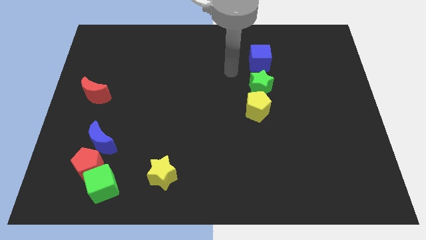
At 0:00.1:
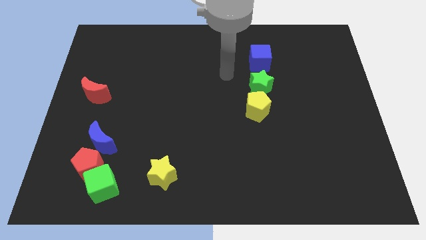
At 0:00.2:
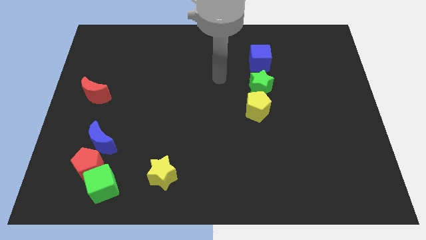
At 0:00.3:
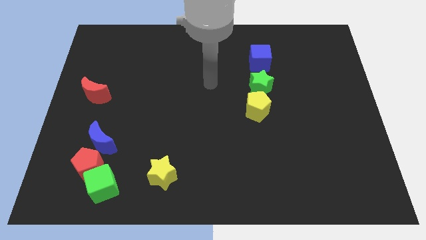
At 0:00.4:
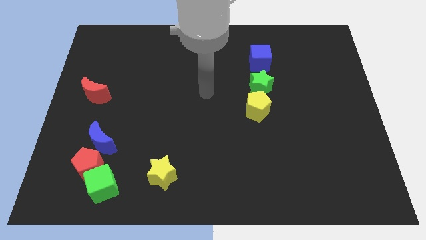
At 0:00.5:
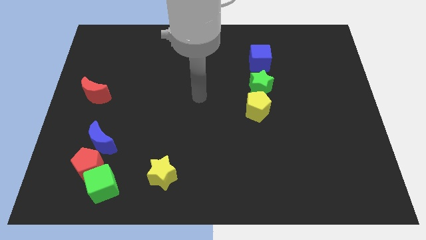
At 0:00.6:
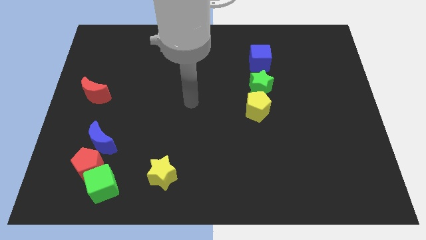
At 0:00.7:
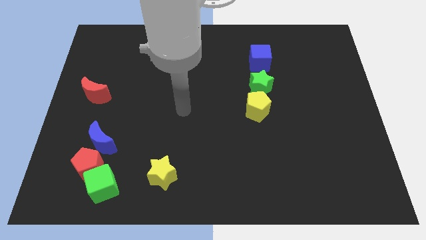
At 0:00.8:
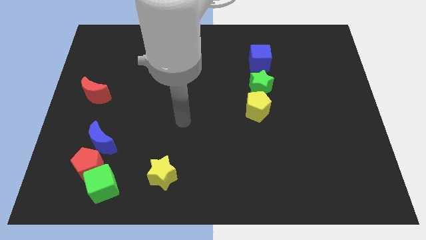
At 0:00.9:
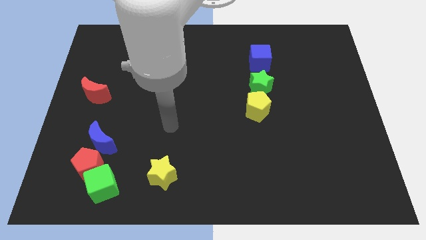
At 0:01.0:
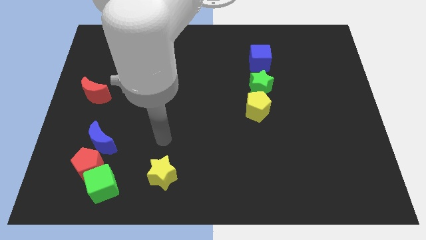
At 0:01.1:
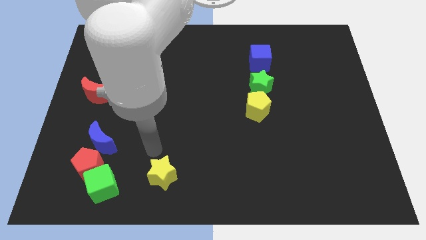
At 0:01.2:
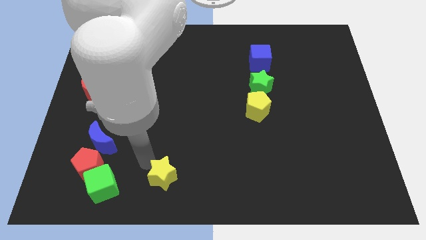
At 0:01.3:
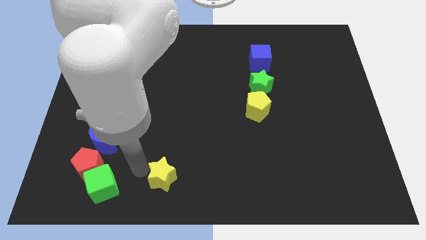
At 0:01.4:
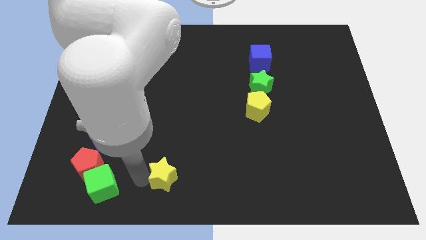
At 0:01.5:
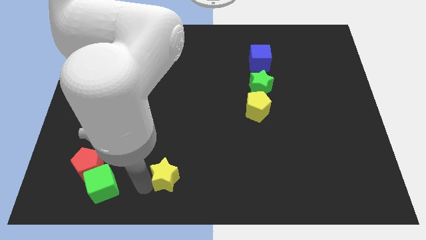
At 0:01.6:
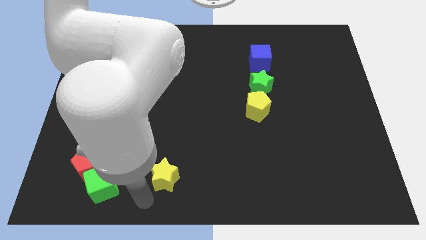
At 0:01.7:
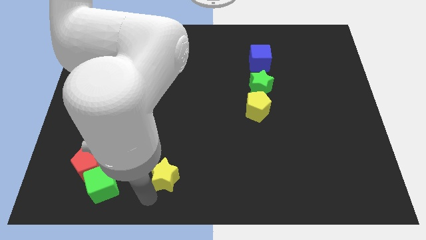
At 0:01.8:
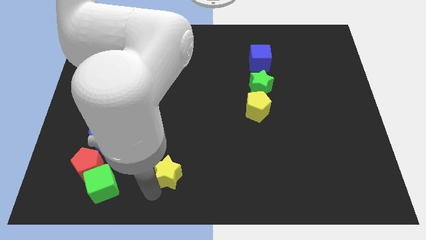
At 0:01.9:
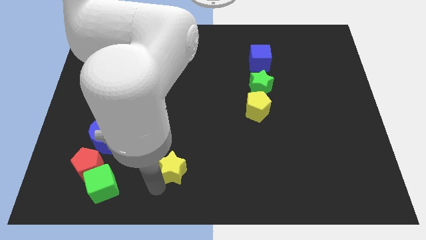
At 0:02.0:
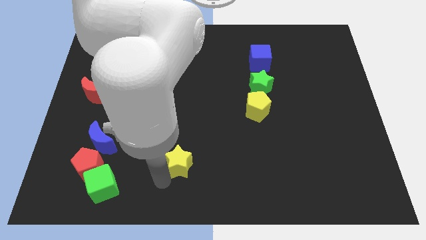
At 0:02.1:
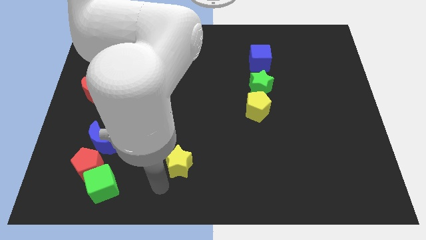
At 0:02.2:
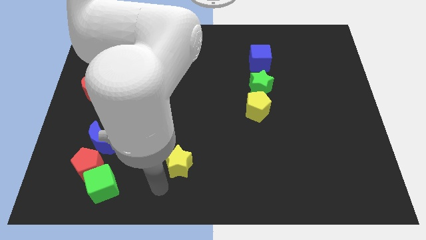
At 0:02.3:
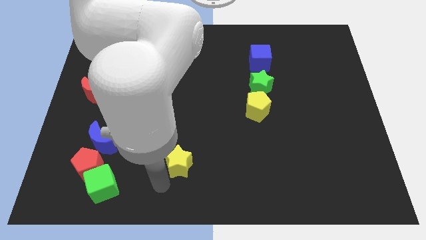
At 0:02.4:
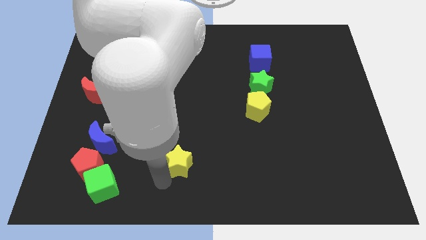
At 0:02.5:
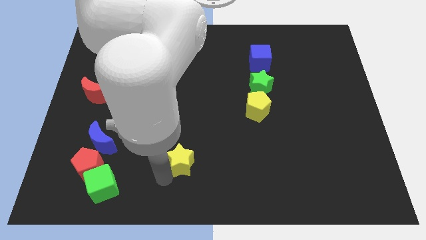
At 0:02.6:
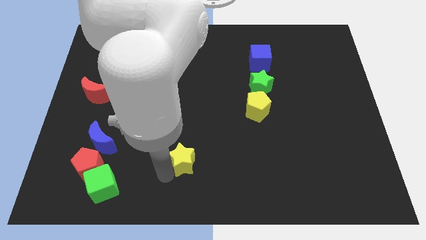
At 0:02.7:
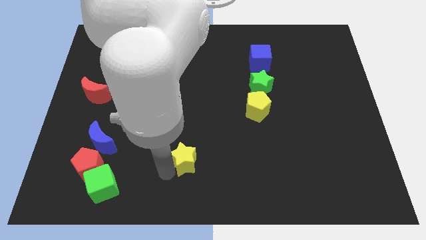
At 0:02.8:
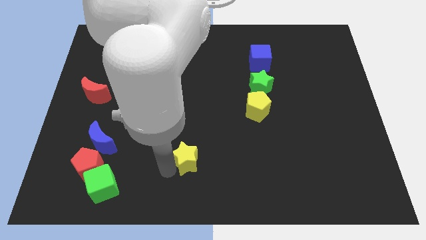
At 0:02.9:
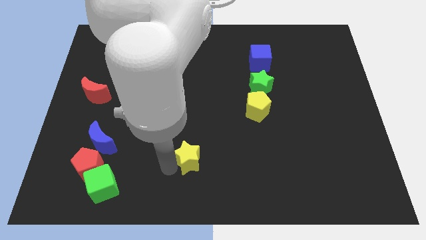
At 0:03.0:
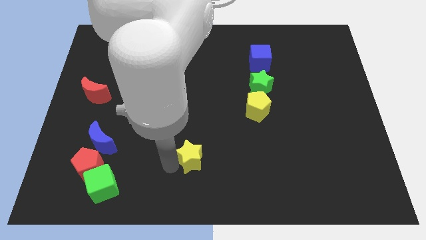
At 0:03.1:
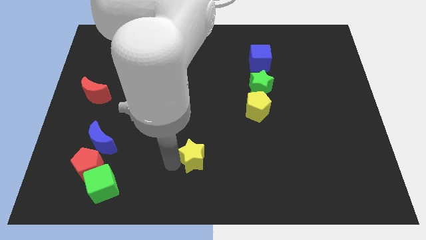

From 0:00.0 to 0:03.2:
slide the yellow star upwards and then to the right somewhat

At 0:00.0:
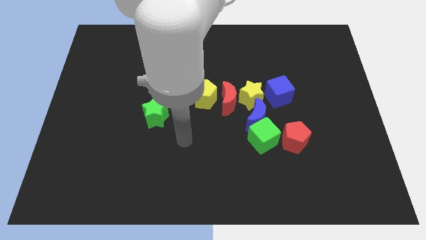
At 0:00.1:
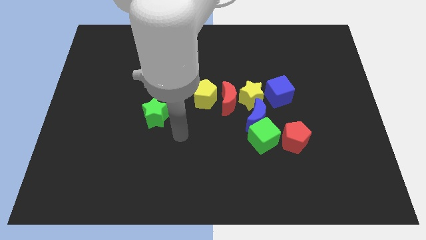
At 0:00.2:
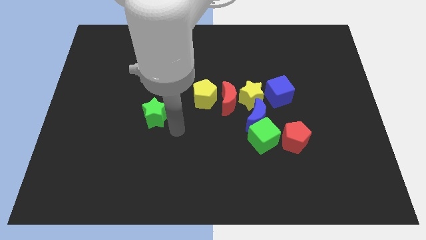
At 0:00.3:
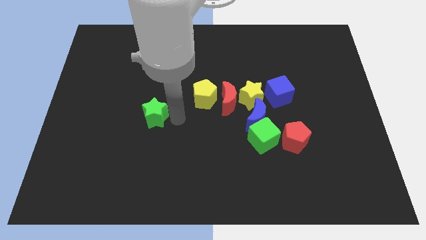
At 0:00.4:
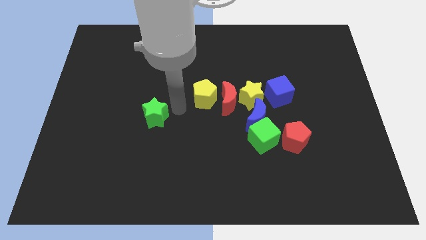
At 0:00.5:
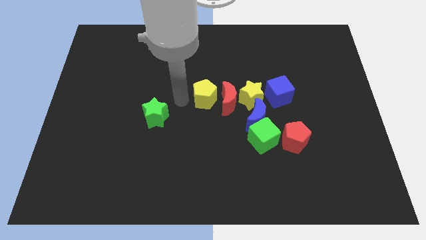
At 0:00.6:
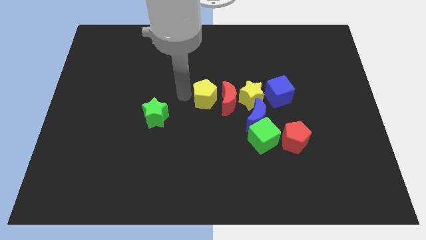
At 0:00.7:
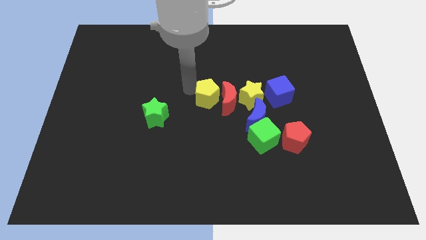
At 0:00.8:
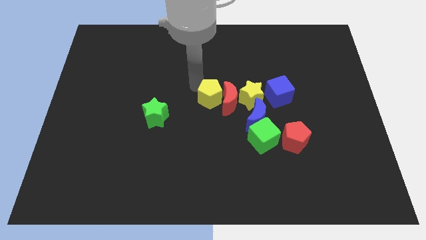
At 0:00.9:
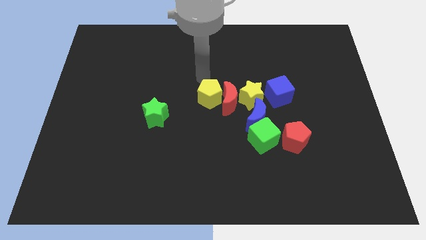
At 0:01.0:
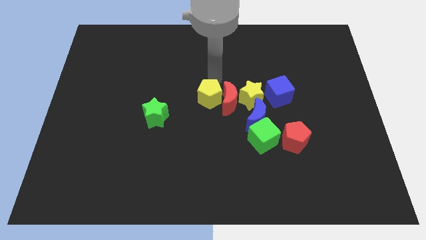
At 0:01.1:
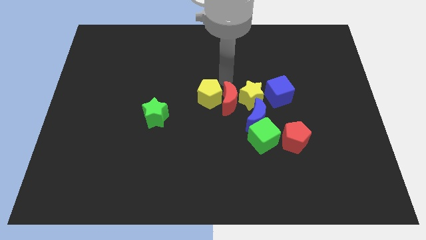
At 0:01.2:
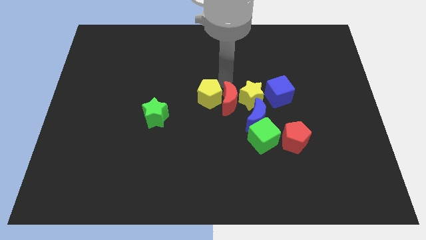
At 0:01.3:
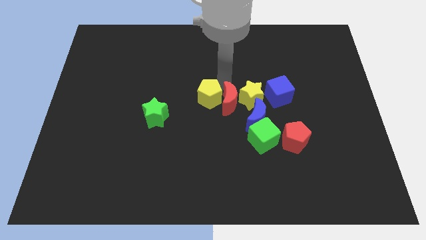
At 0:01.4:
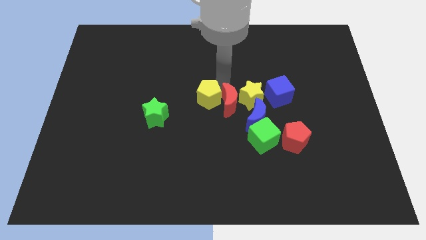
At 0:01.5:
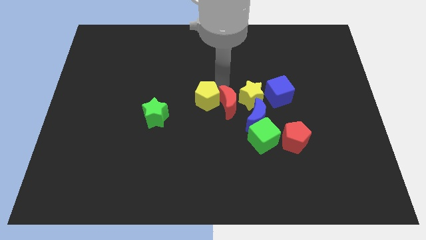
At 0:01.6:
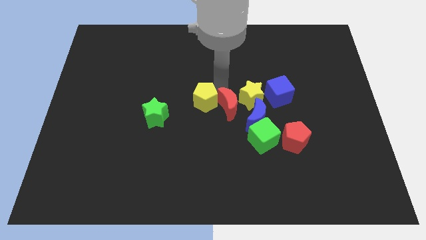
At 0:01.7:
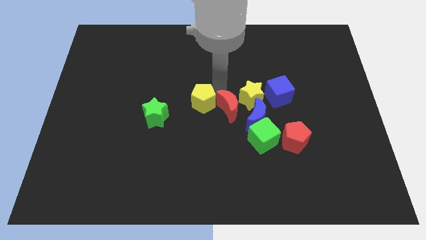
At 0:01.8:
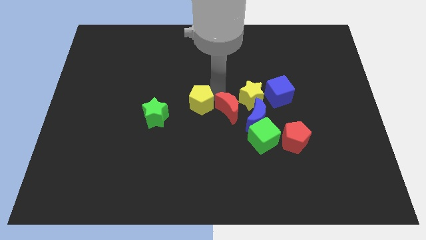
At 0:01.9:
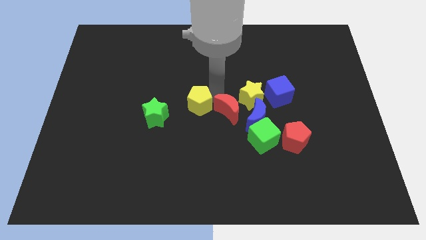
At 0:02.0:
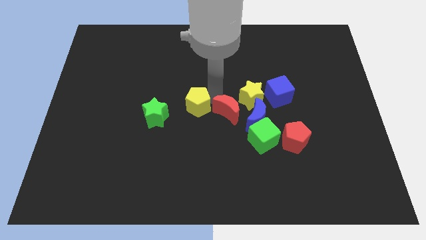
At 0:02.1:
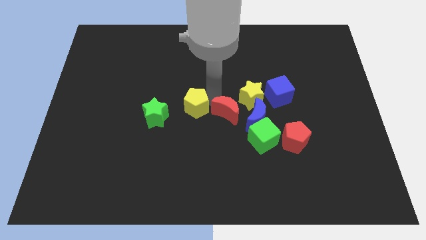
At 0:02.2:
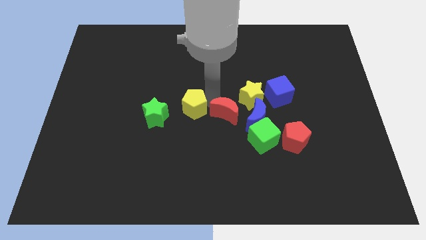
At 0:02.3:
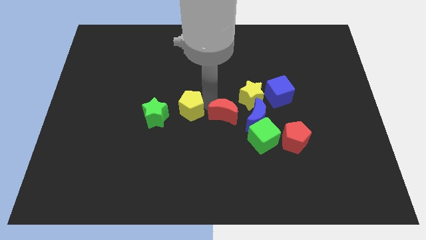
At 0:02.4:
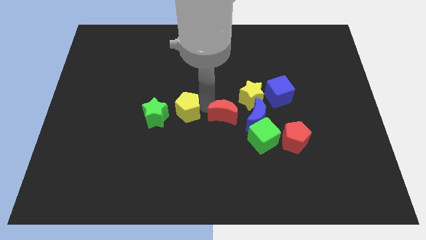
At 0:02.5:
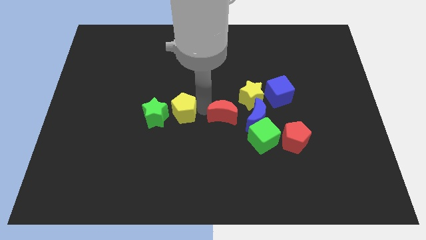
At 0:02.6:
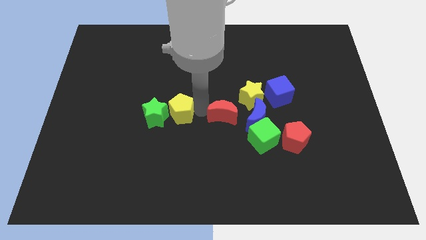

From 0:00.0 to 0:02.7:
slide the yellow pentagon downwards and to the left a little

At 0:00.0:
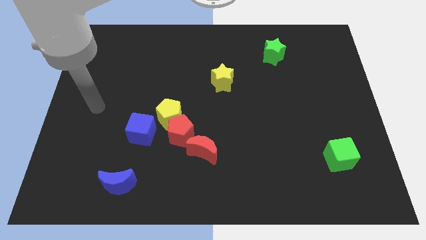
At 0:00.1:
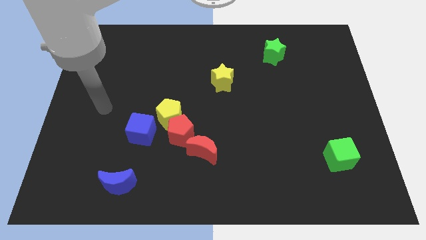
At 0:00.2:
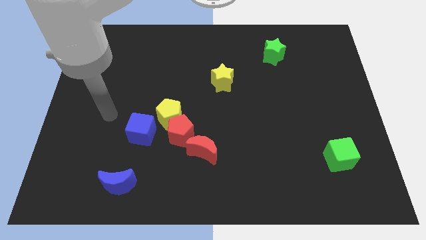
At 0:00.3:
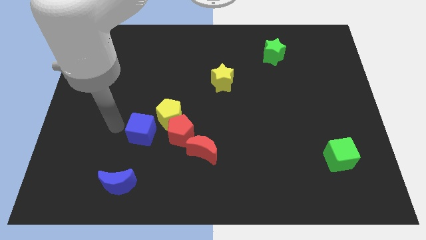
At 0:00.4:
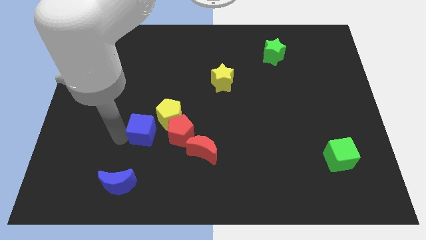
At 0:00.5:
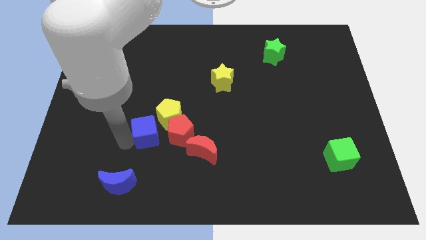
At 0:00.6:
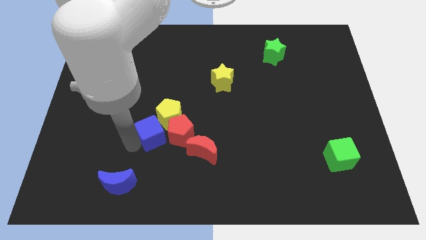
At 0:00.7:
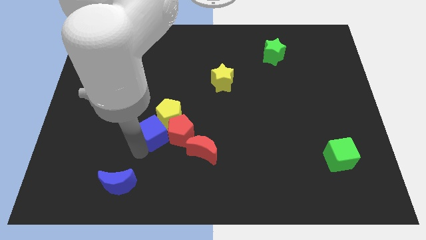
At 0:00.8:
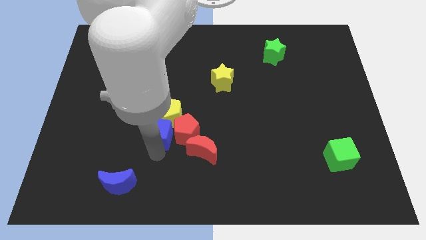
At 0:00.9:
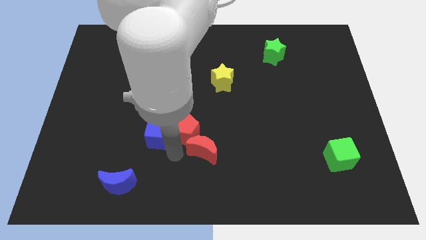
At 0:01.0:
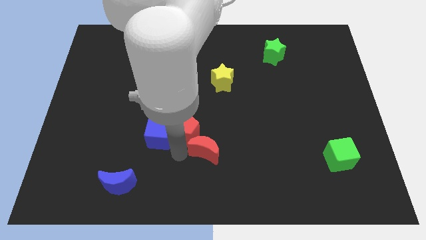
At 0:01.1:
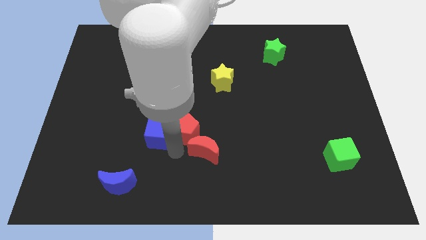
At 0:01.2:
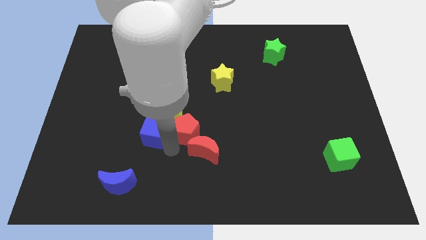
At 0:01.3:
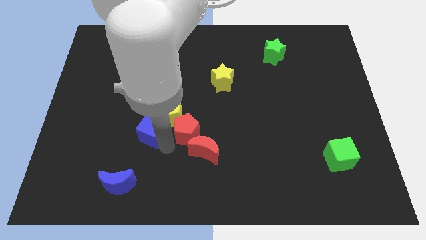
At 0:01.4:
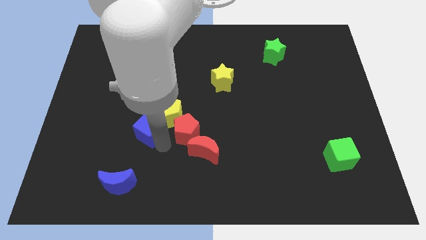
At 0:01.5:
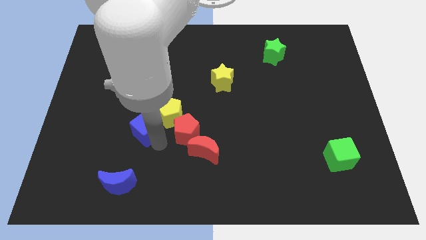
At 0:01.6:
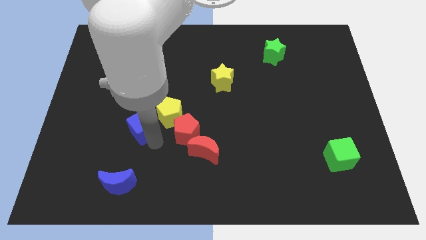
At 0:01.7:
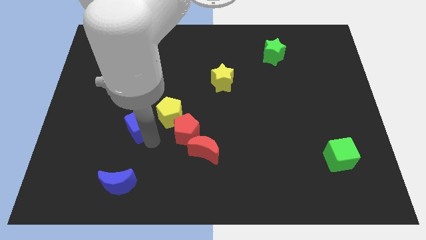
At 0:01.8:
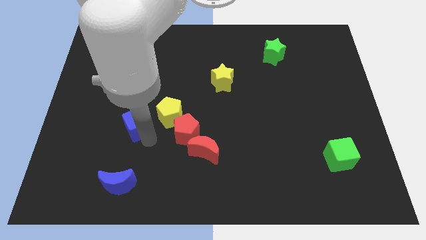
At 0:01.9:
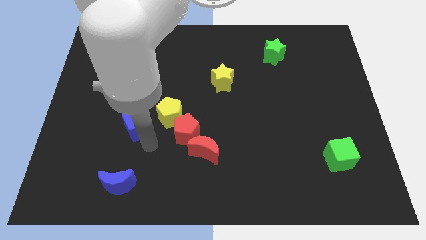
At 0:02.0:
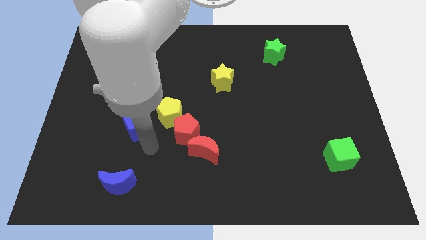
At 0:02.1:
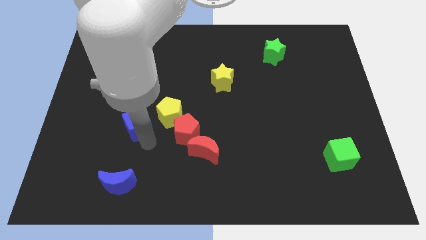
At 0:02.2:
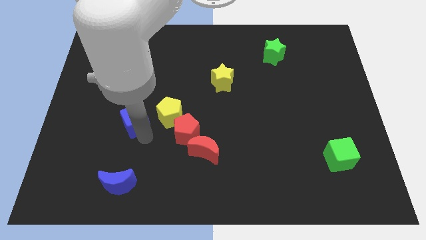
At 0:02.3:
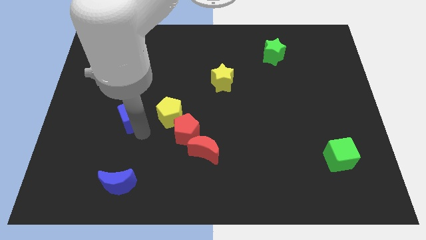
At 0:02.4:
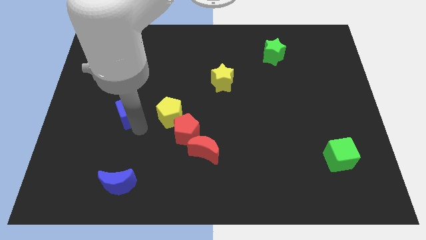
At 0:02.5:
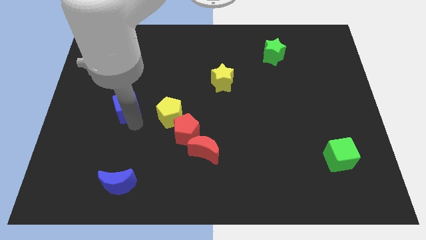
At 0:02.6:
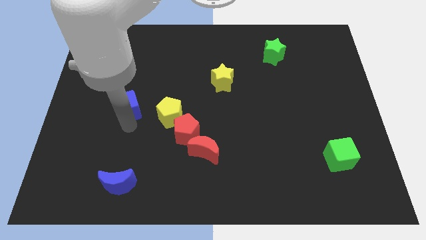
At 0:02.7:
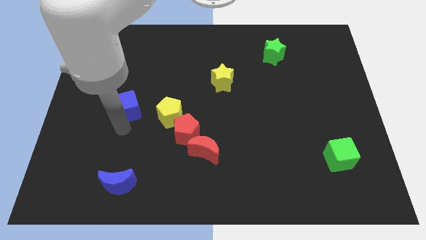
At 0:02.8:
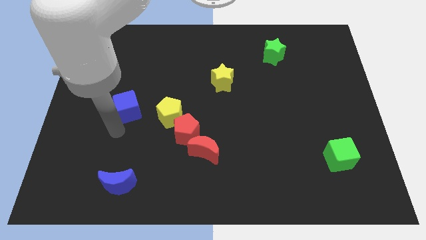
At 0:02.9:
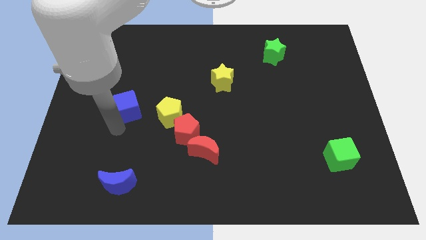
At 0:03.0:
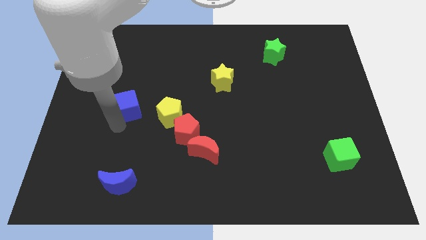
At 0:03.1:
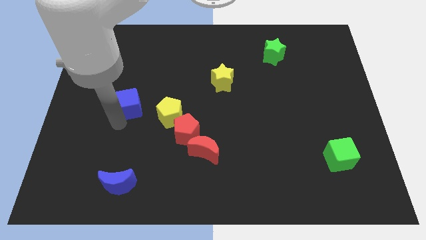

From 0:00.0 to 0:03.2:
slightly move the blue cube upwards
